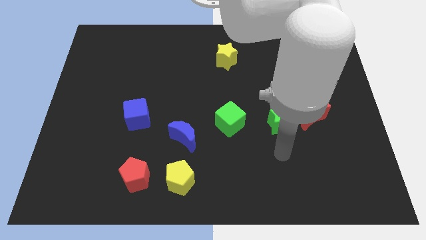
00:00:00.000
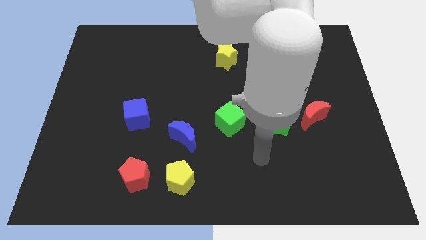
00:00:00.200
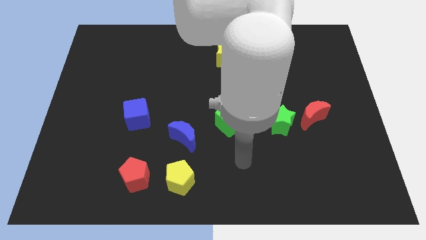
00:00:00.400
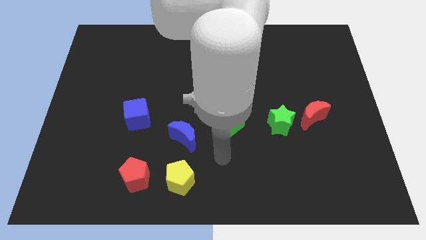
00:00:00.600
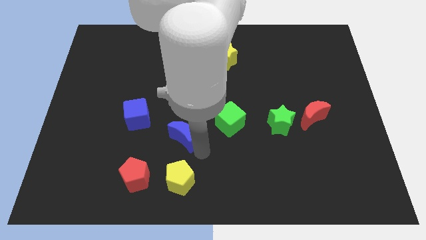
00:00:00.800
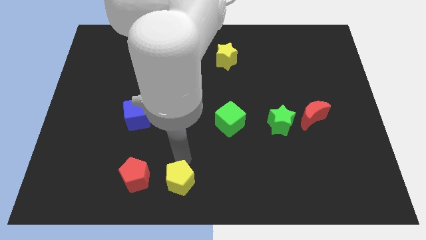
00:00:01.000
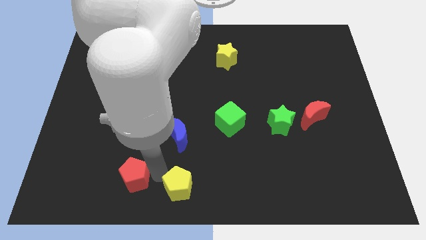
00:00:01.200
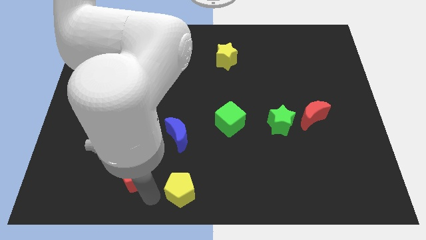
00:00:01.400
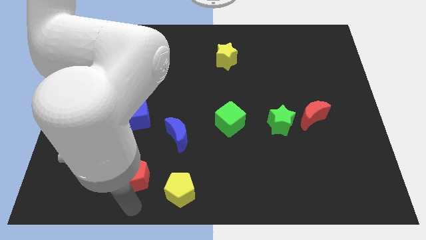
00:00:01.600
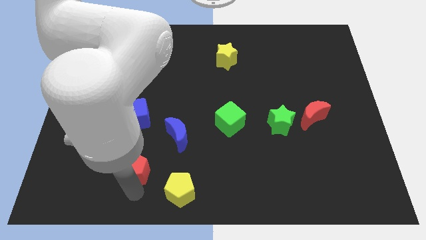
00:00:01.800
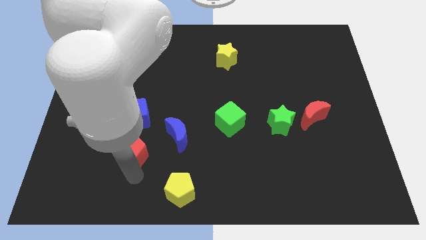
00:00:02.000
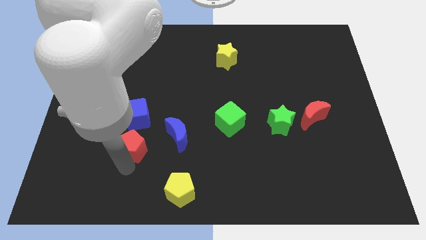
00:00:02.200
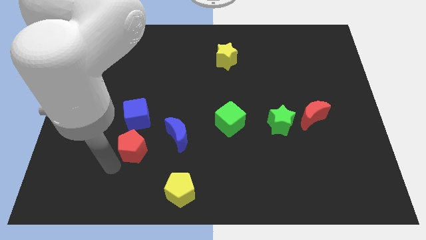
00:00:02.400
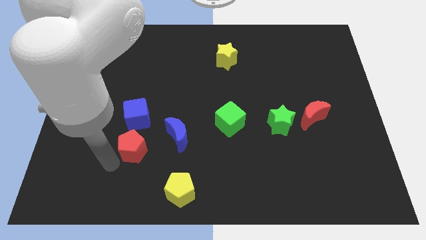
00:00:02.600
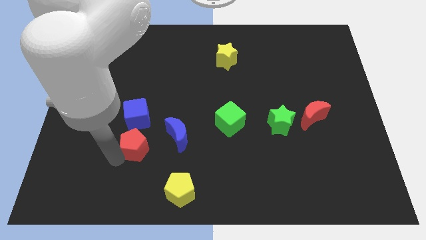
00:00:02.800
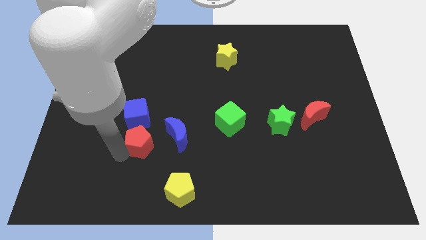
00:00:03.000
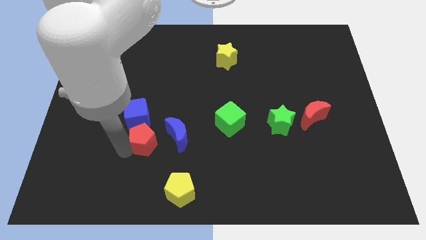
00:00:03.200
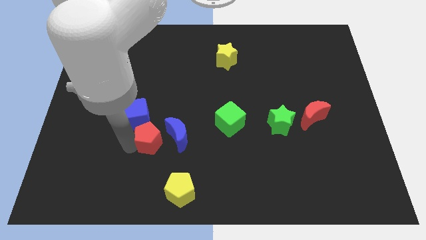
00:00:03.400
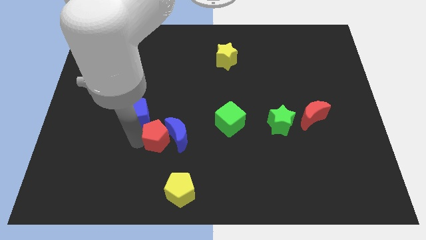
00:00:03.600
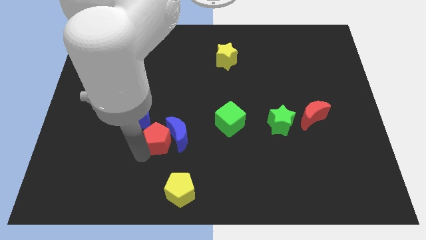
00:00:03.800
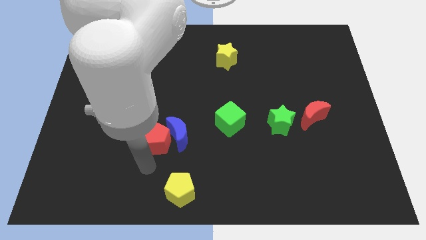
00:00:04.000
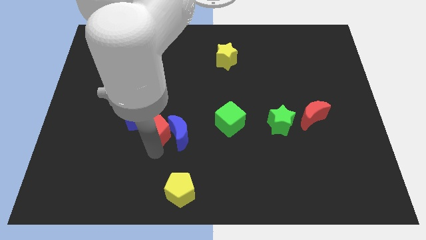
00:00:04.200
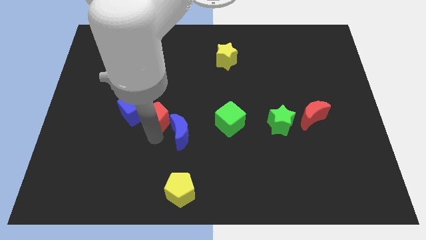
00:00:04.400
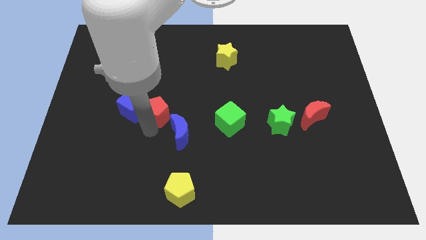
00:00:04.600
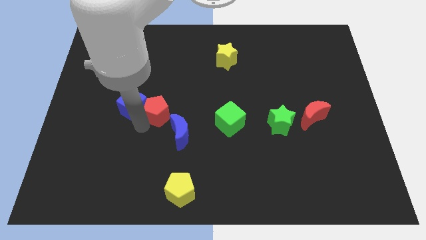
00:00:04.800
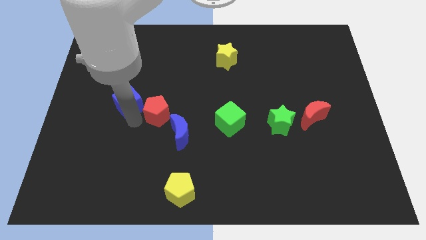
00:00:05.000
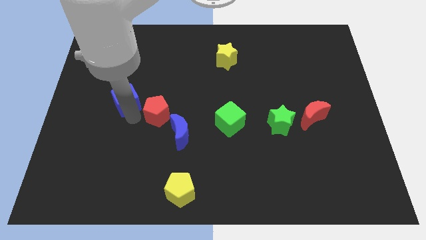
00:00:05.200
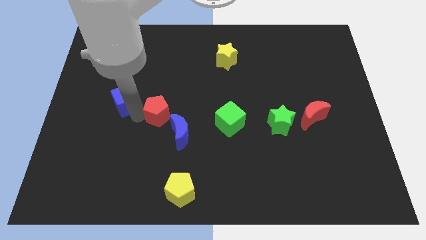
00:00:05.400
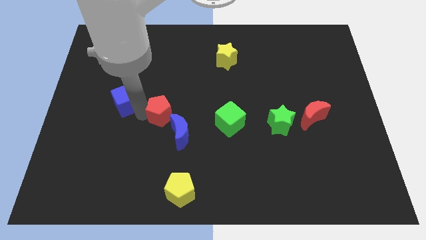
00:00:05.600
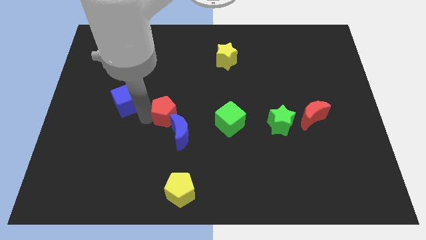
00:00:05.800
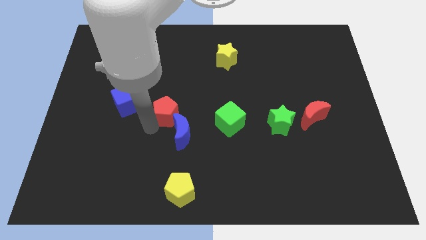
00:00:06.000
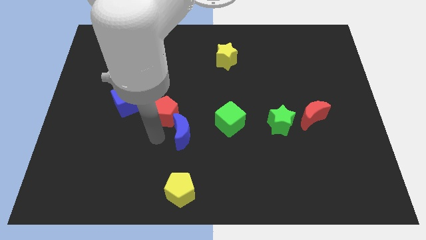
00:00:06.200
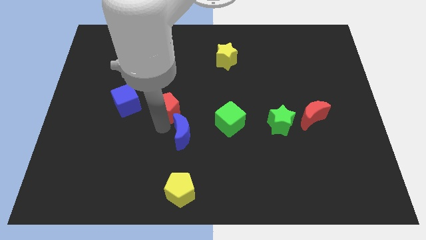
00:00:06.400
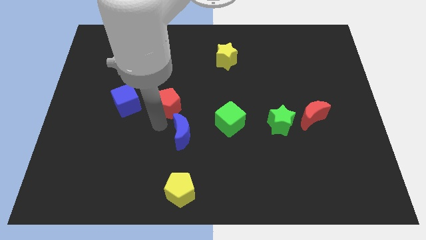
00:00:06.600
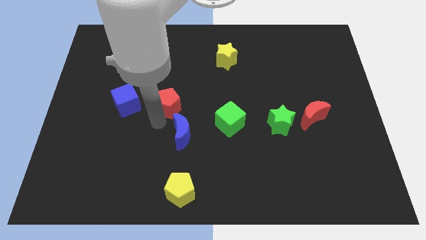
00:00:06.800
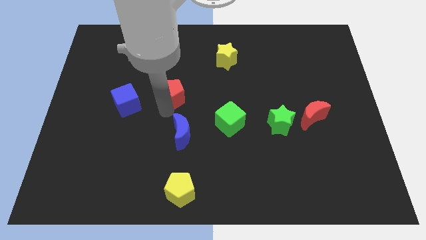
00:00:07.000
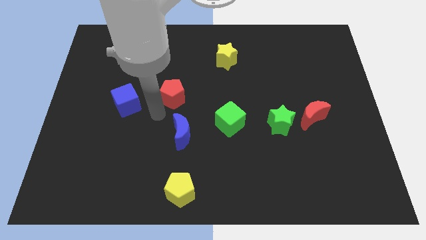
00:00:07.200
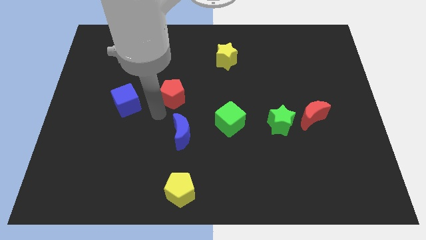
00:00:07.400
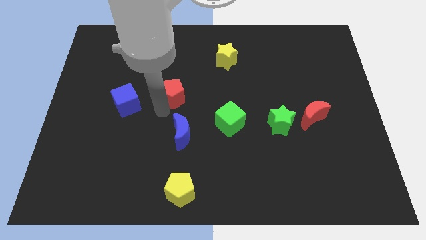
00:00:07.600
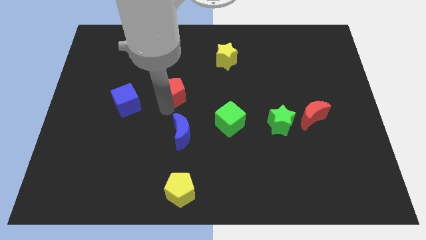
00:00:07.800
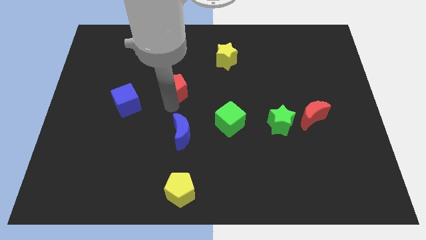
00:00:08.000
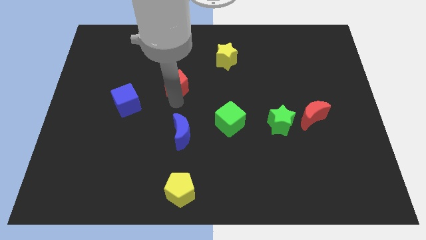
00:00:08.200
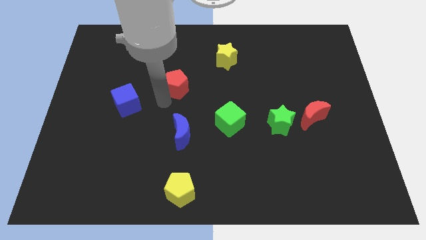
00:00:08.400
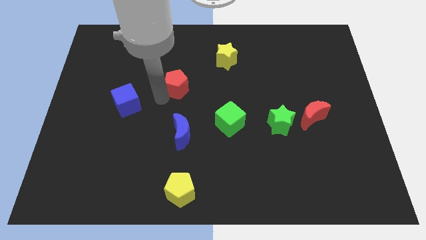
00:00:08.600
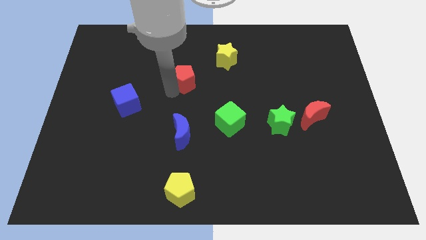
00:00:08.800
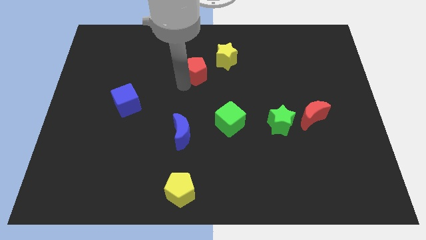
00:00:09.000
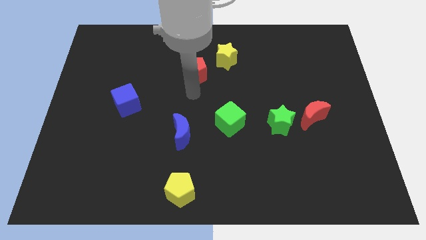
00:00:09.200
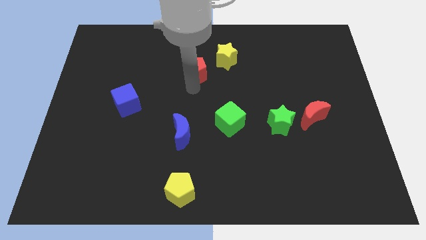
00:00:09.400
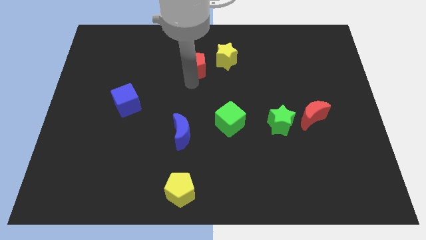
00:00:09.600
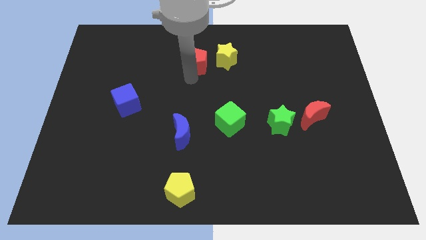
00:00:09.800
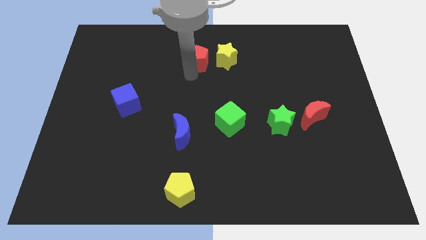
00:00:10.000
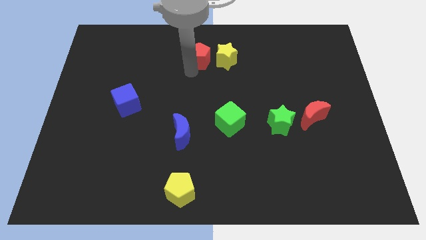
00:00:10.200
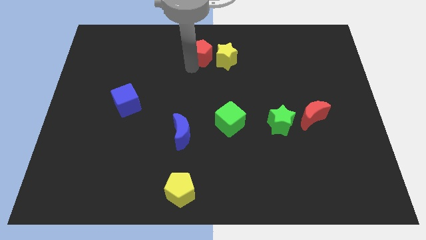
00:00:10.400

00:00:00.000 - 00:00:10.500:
push the red pentagon to the towards your base

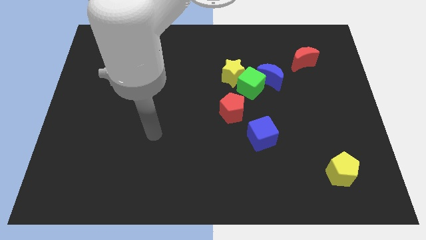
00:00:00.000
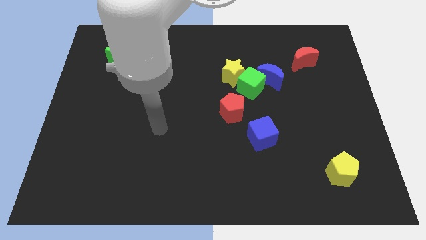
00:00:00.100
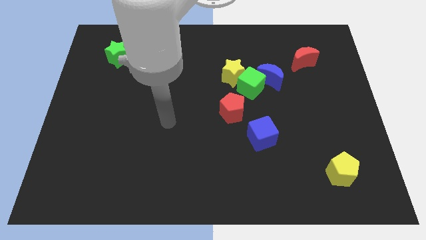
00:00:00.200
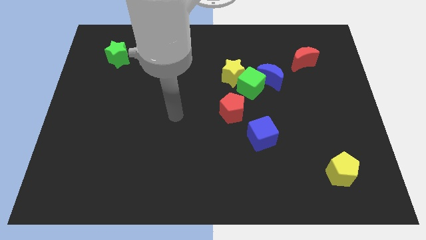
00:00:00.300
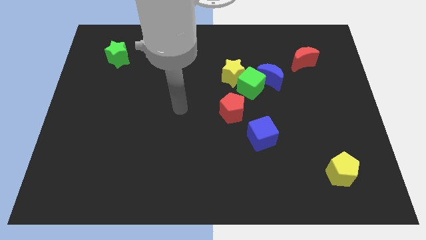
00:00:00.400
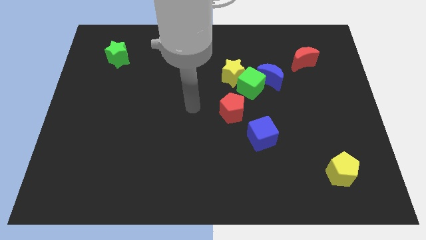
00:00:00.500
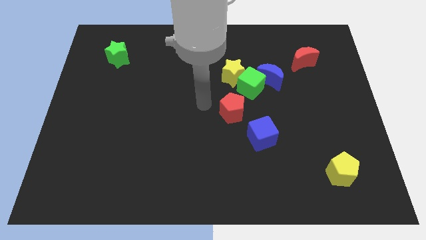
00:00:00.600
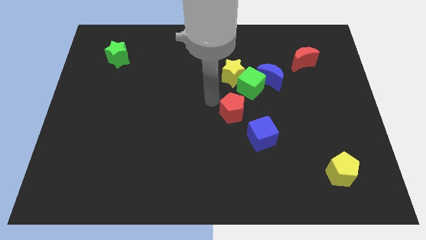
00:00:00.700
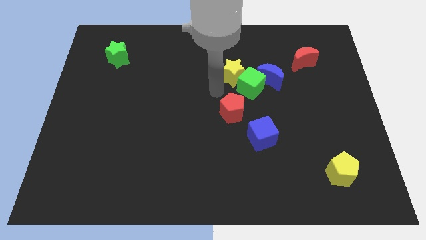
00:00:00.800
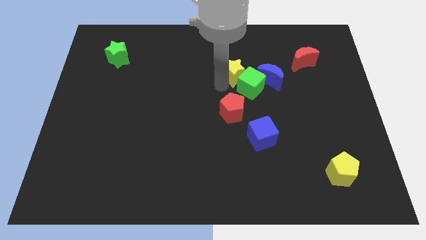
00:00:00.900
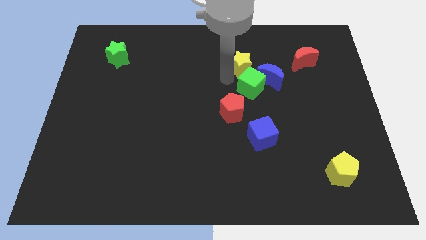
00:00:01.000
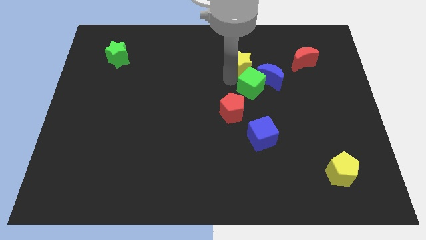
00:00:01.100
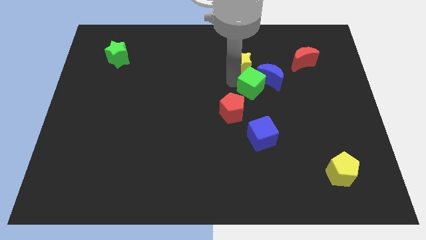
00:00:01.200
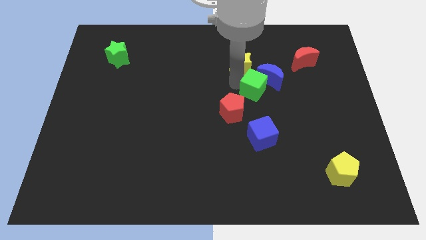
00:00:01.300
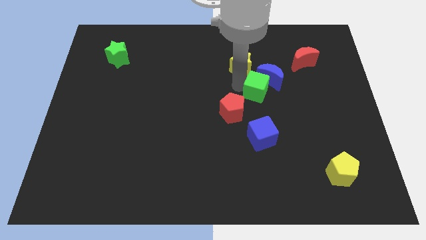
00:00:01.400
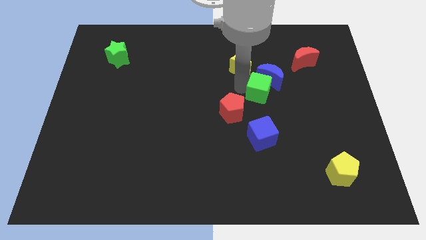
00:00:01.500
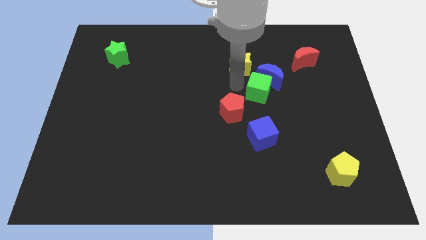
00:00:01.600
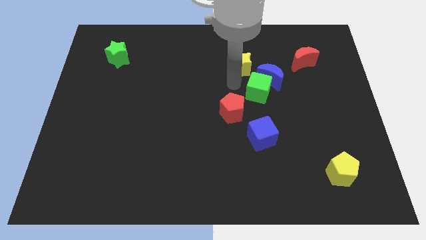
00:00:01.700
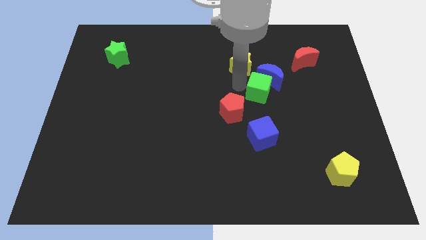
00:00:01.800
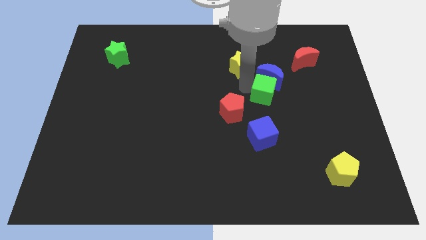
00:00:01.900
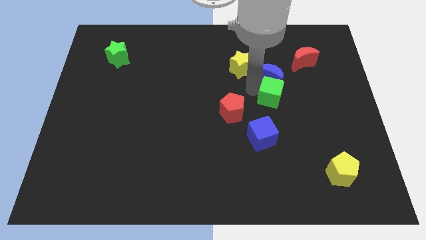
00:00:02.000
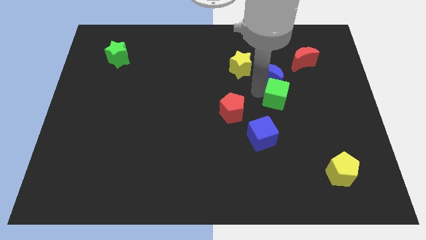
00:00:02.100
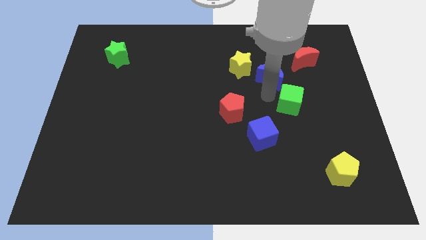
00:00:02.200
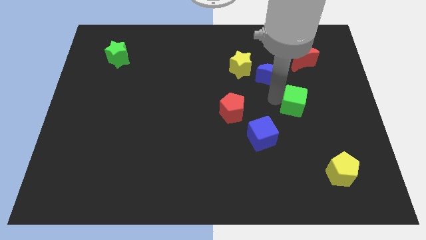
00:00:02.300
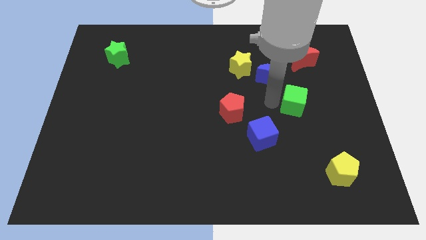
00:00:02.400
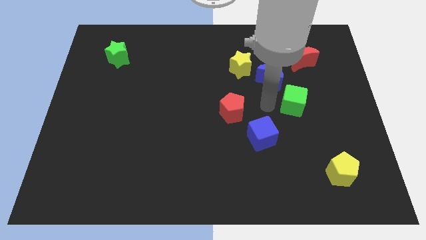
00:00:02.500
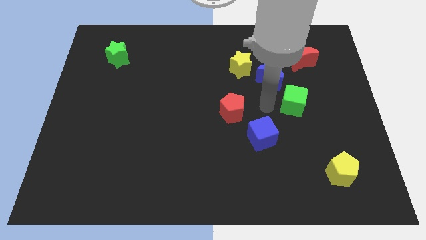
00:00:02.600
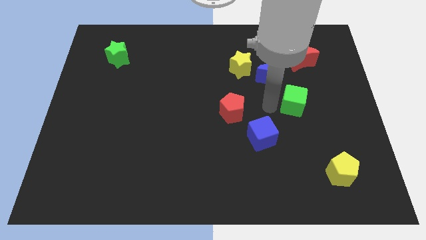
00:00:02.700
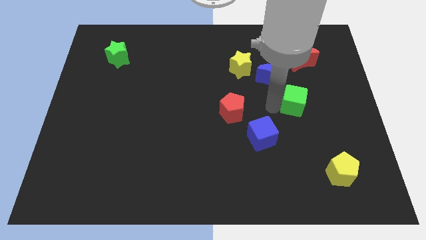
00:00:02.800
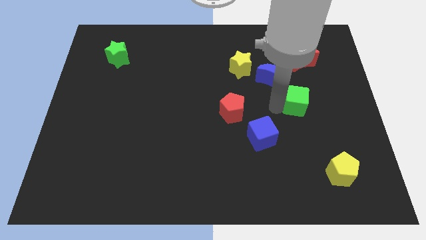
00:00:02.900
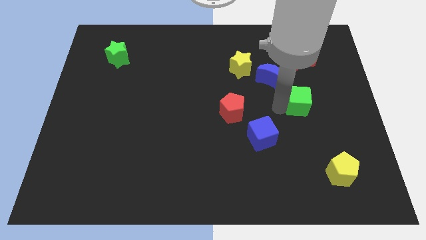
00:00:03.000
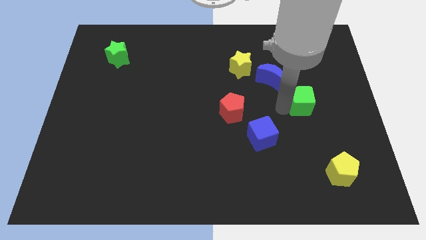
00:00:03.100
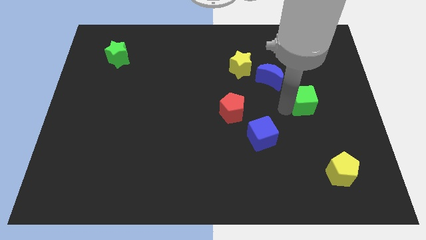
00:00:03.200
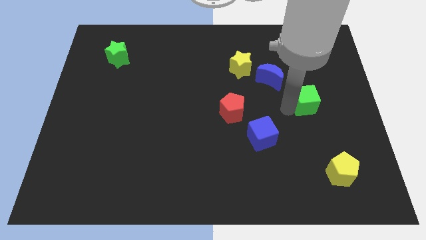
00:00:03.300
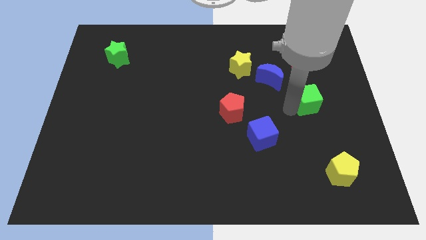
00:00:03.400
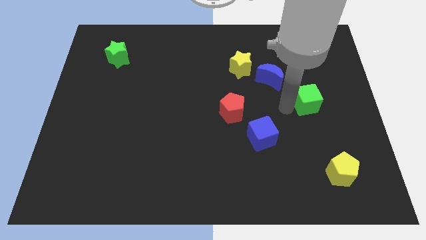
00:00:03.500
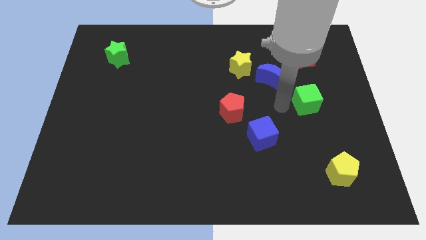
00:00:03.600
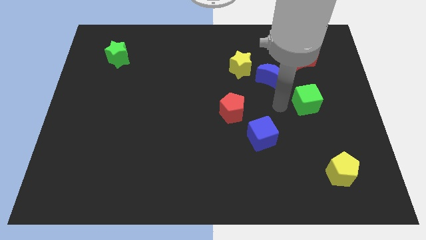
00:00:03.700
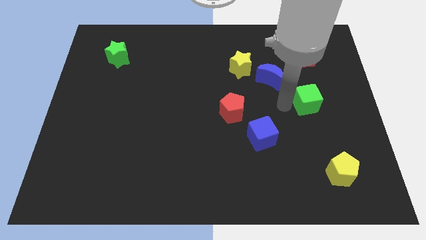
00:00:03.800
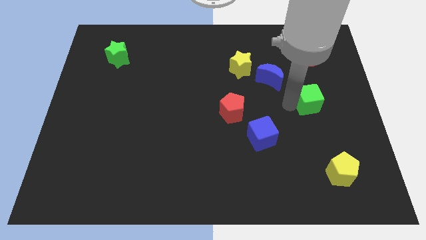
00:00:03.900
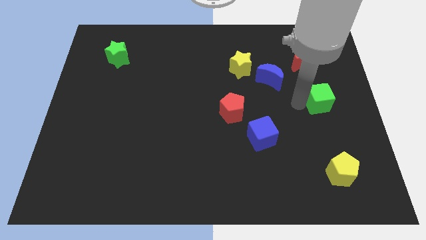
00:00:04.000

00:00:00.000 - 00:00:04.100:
push the green cube to the center right
